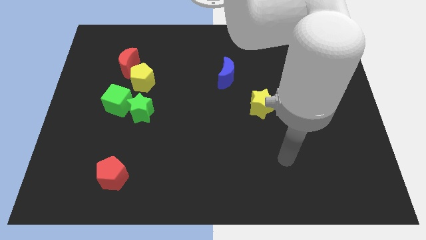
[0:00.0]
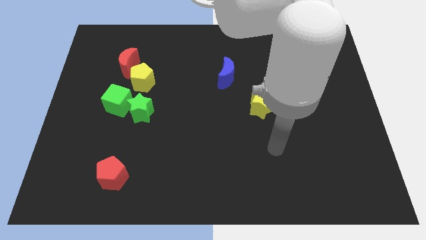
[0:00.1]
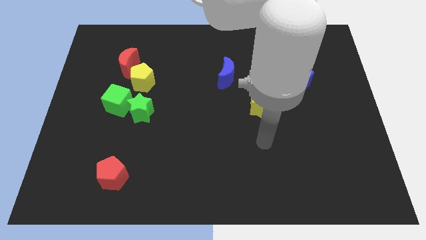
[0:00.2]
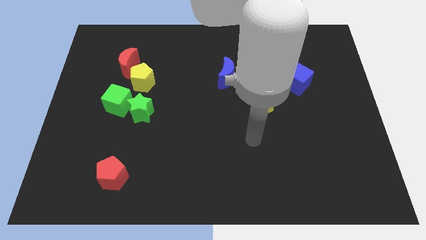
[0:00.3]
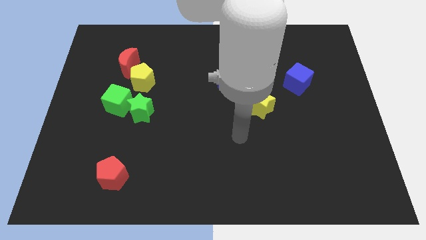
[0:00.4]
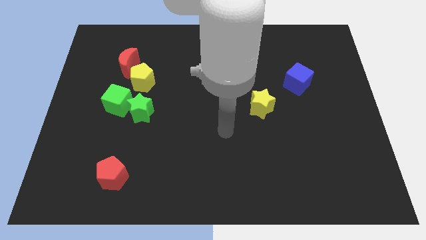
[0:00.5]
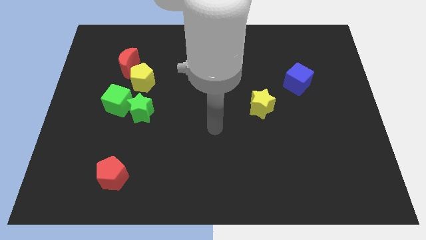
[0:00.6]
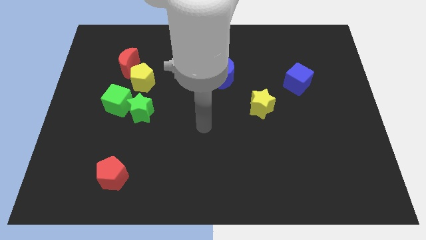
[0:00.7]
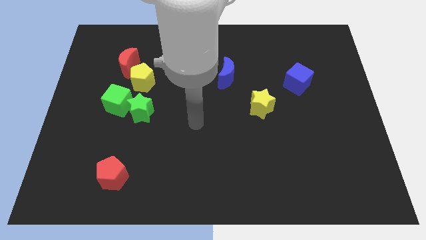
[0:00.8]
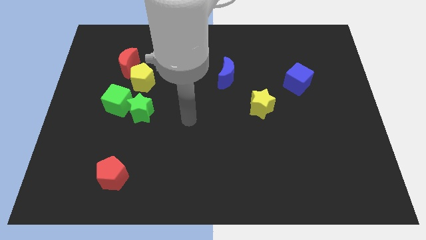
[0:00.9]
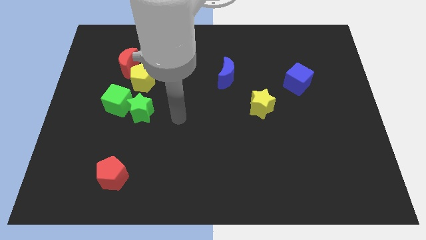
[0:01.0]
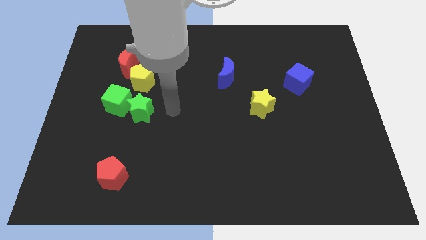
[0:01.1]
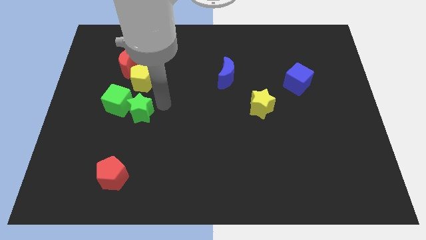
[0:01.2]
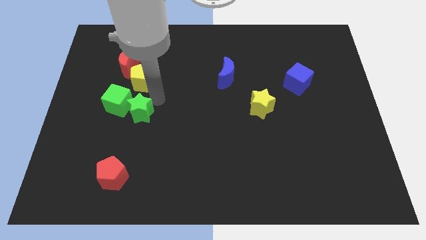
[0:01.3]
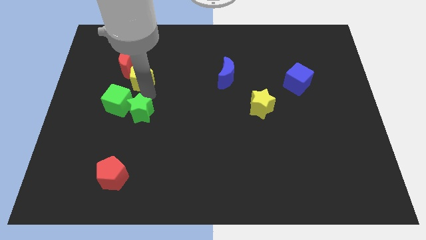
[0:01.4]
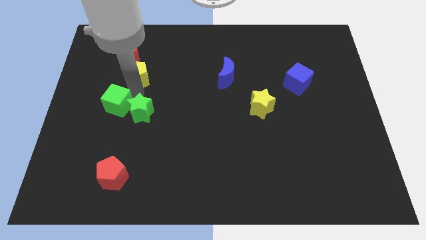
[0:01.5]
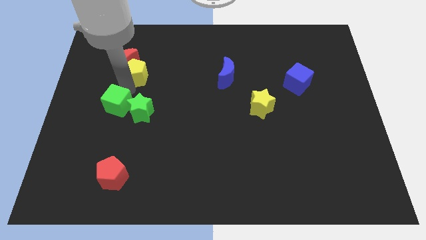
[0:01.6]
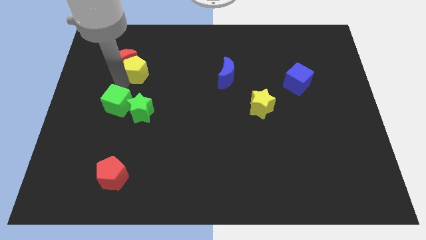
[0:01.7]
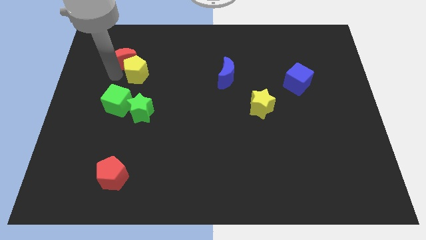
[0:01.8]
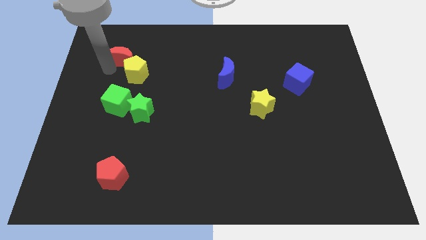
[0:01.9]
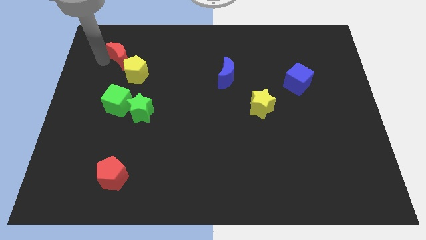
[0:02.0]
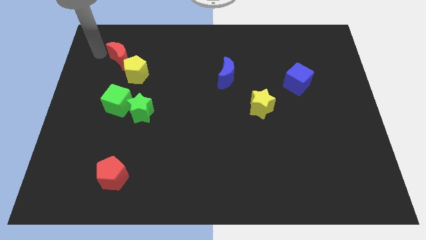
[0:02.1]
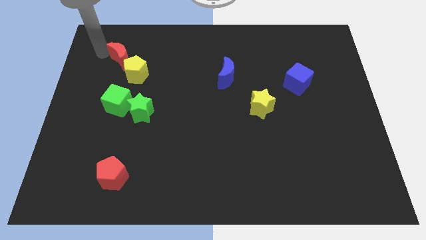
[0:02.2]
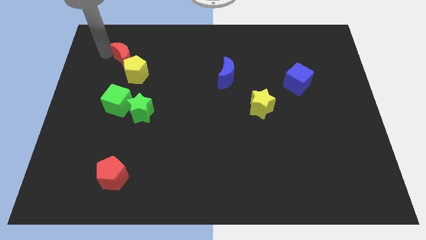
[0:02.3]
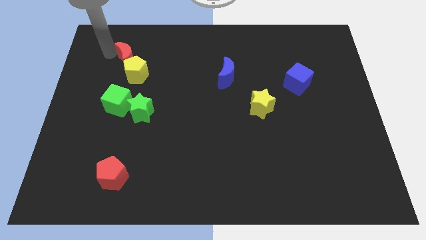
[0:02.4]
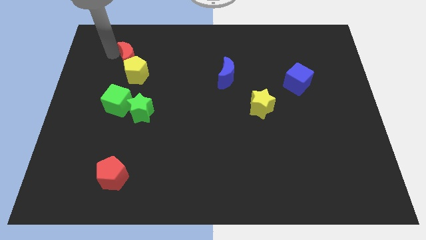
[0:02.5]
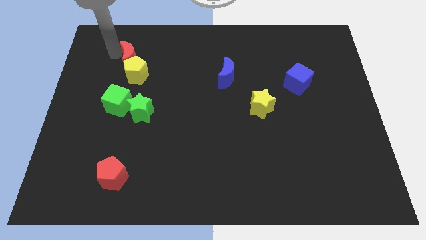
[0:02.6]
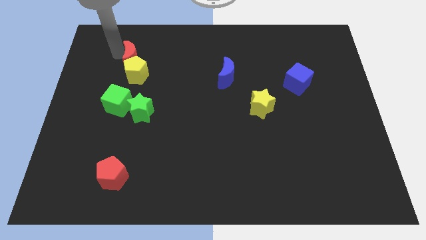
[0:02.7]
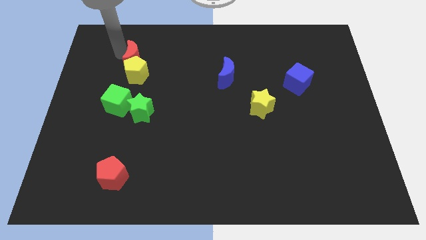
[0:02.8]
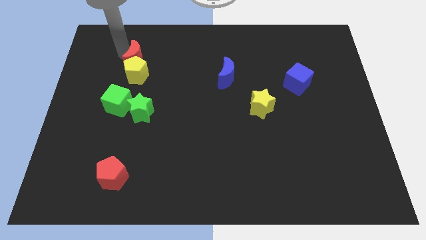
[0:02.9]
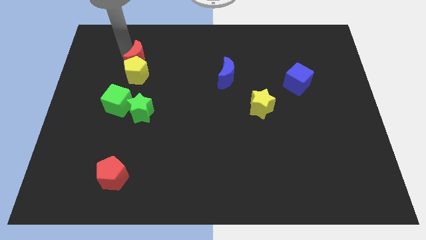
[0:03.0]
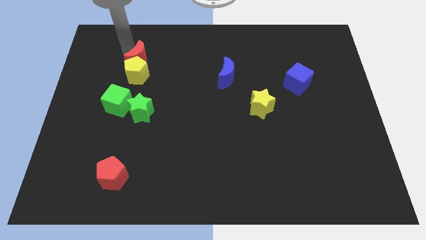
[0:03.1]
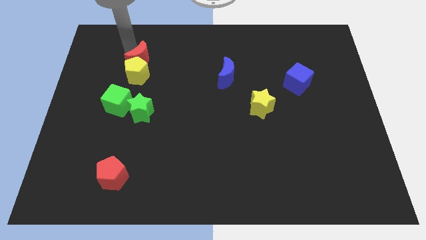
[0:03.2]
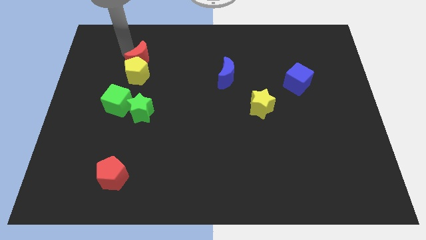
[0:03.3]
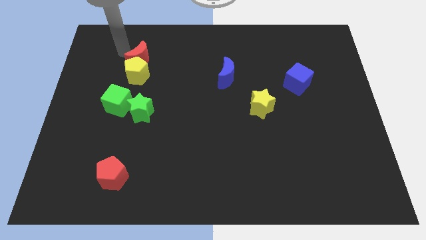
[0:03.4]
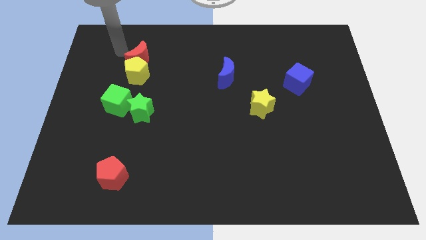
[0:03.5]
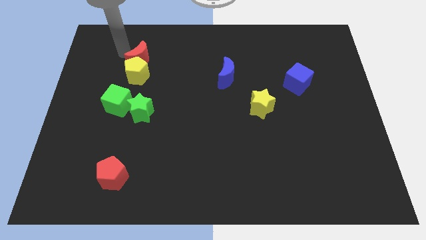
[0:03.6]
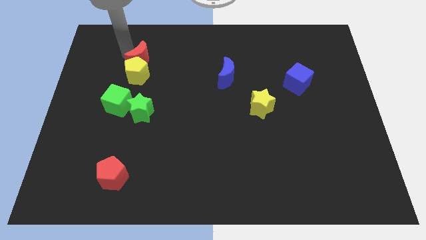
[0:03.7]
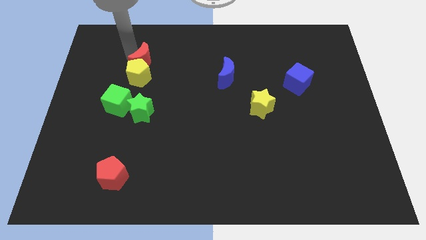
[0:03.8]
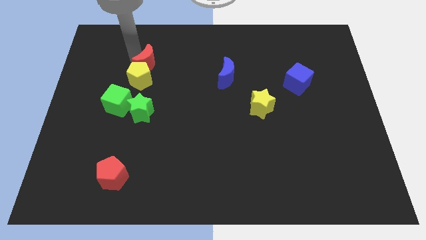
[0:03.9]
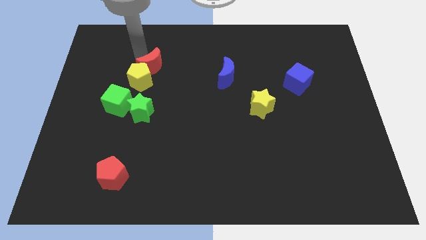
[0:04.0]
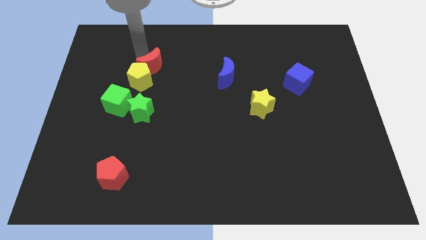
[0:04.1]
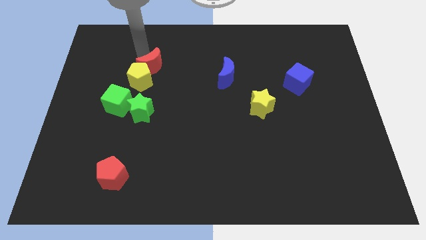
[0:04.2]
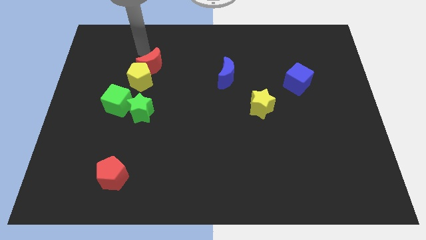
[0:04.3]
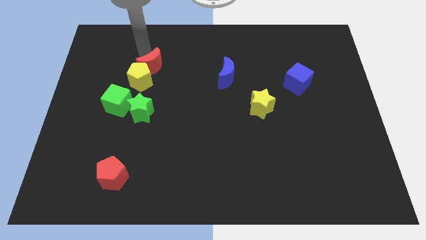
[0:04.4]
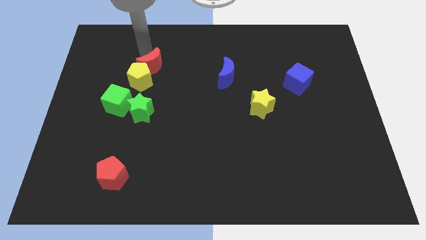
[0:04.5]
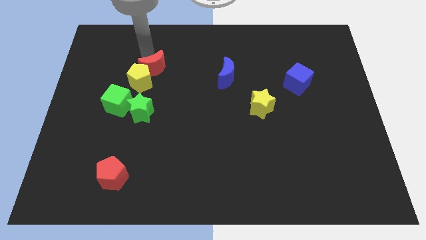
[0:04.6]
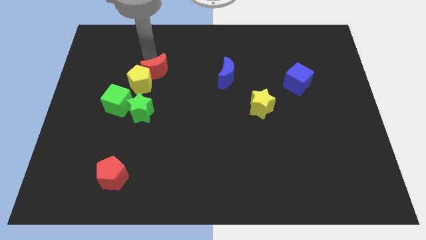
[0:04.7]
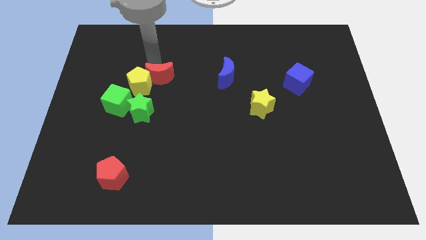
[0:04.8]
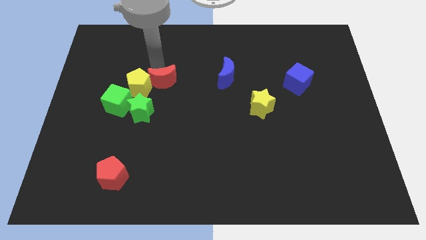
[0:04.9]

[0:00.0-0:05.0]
slide the red moon diagonally up and to the right of the green star

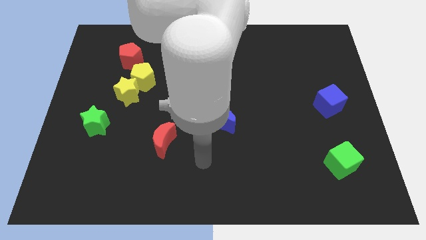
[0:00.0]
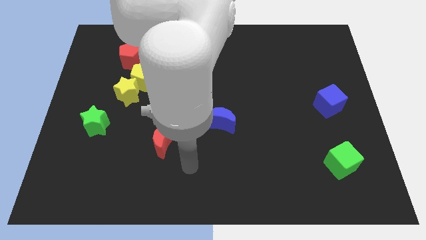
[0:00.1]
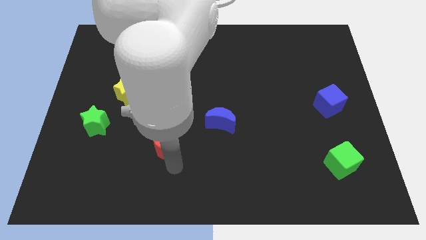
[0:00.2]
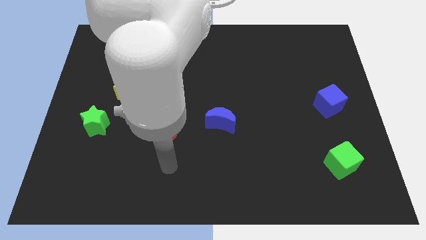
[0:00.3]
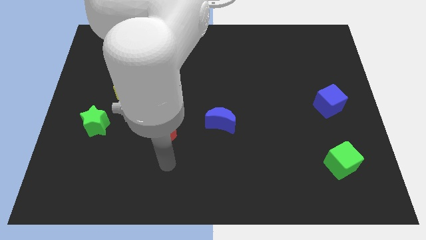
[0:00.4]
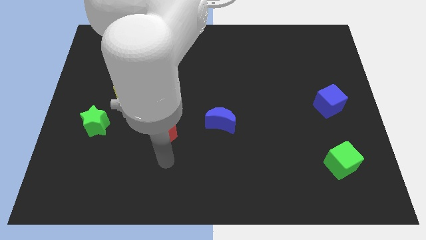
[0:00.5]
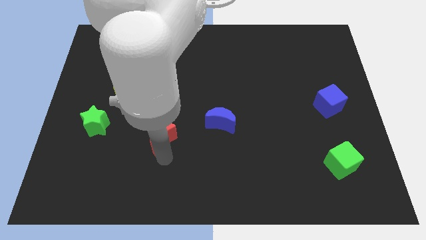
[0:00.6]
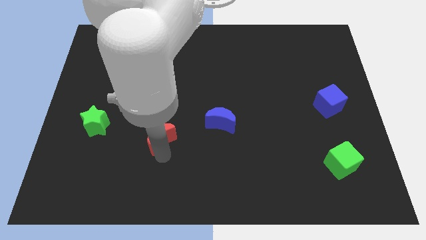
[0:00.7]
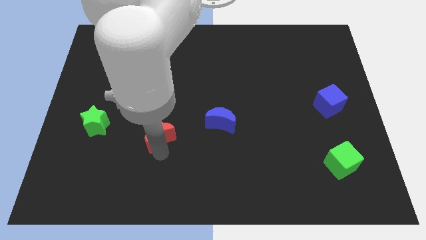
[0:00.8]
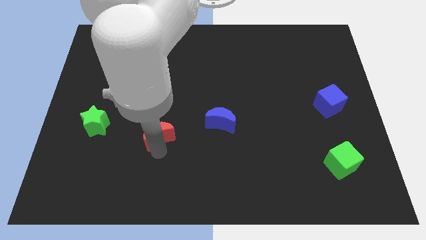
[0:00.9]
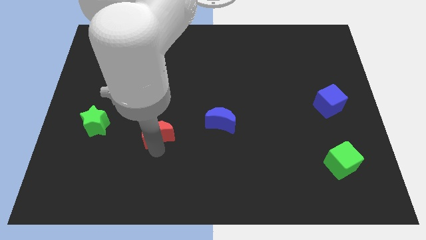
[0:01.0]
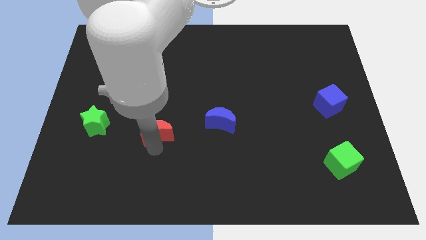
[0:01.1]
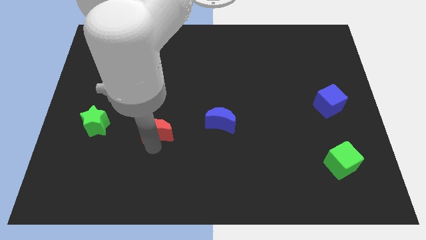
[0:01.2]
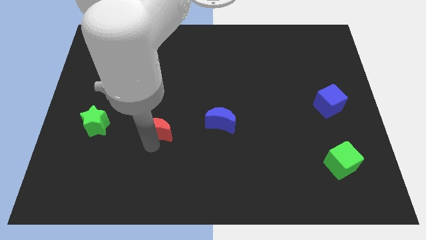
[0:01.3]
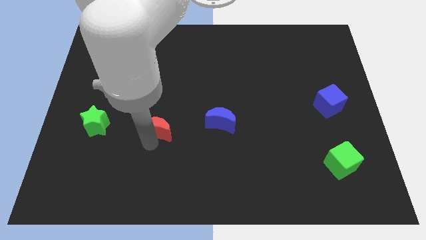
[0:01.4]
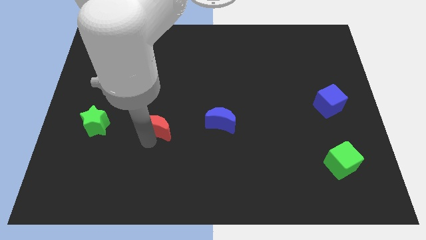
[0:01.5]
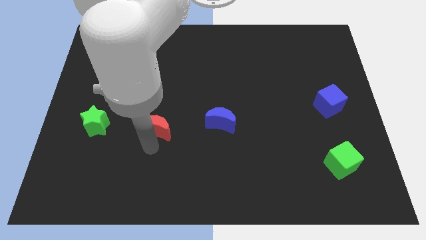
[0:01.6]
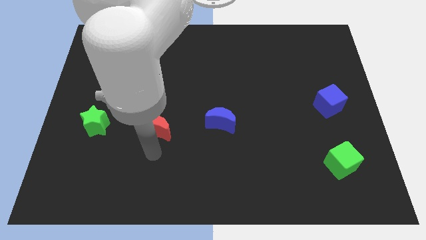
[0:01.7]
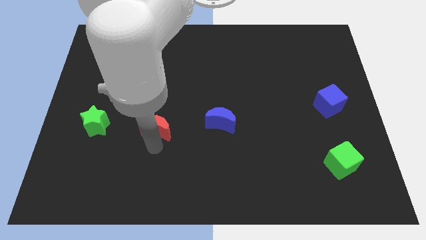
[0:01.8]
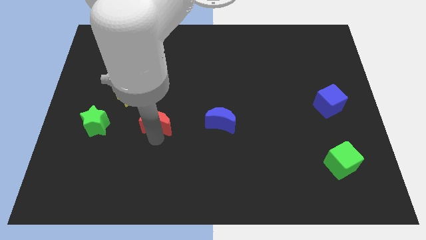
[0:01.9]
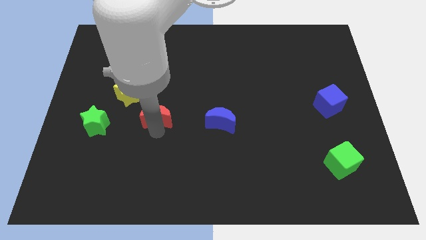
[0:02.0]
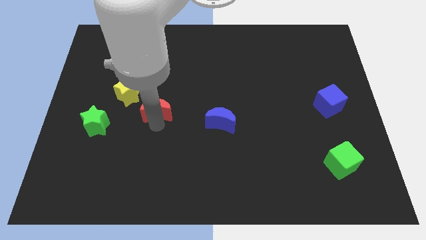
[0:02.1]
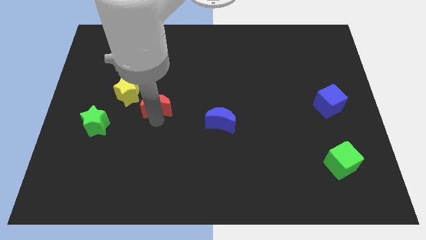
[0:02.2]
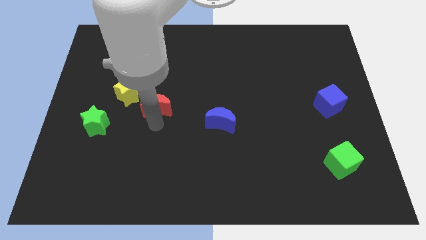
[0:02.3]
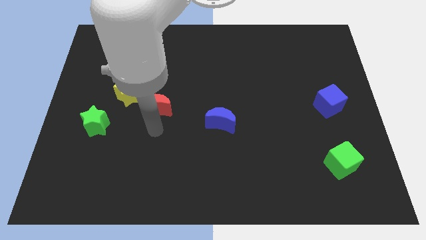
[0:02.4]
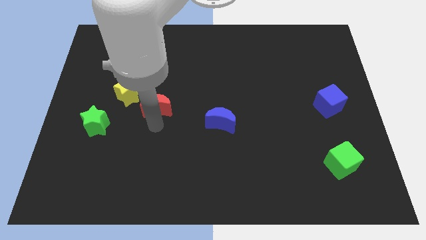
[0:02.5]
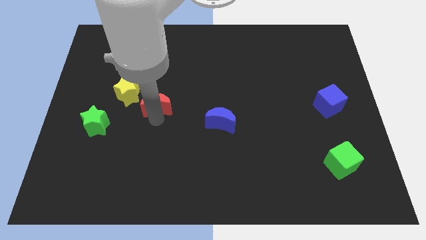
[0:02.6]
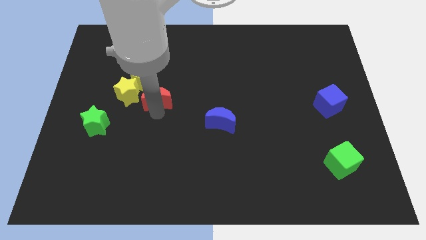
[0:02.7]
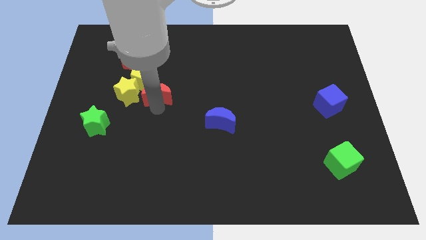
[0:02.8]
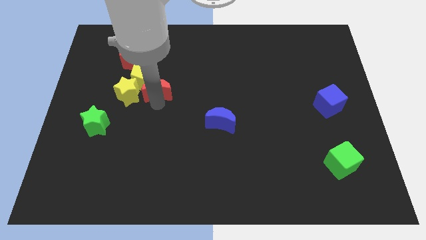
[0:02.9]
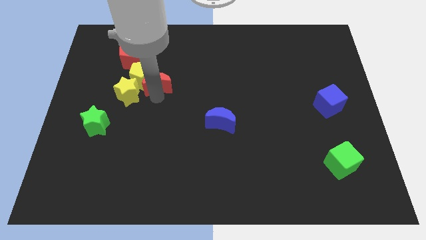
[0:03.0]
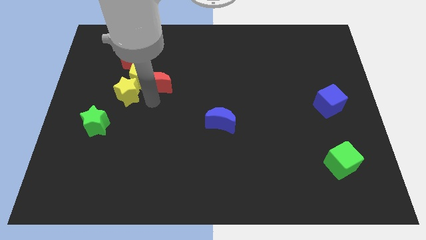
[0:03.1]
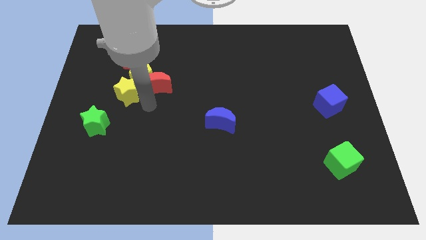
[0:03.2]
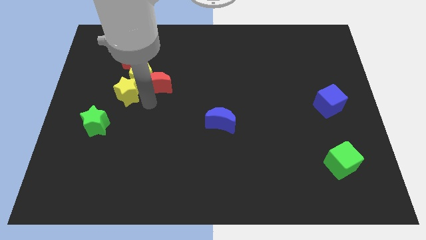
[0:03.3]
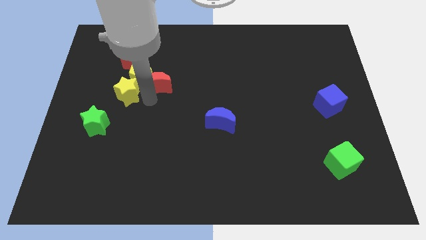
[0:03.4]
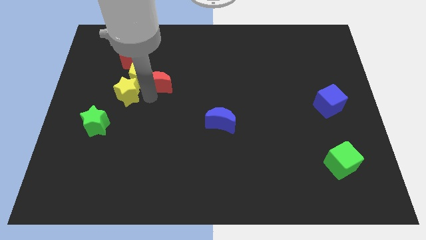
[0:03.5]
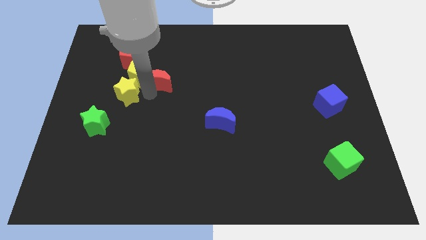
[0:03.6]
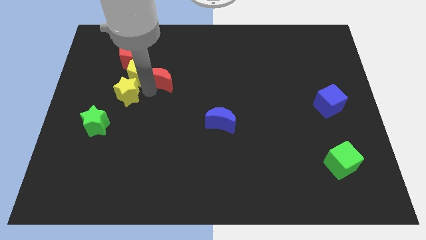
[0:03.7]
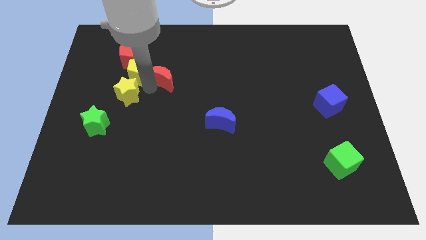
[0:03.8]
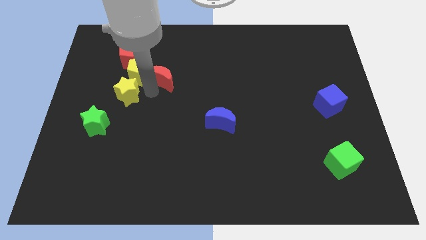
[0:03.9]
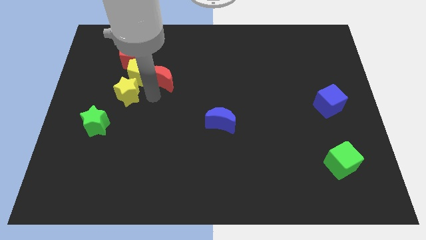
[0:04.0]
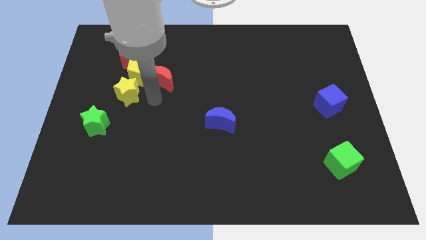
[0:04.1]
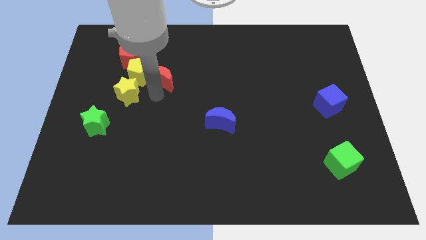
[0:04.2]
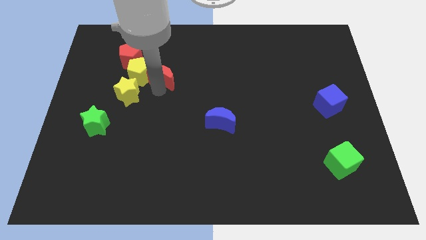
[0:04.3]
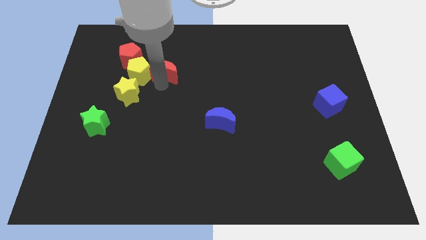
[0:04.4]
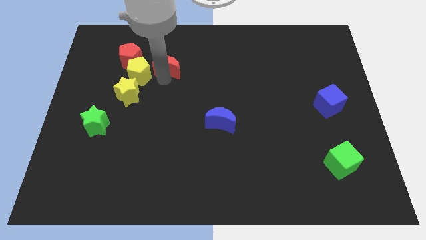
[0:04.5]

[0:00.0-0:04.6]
slide the red moon to the right side of the red pentagon
